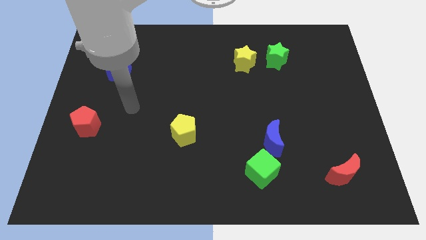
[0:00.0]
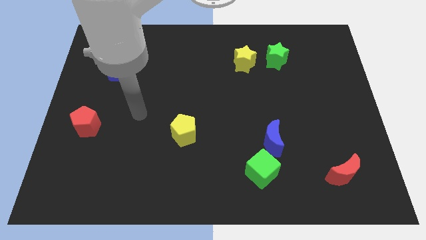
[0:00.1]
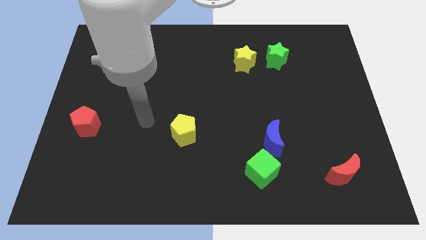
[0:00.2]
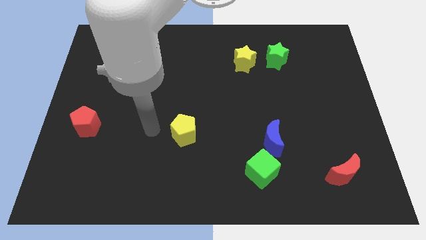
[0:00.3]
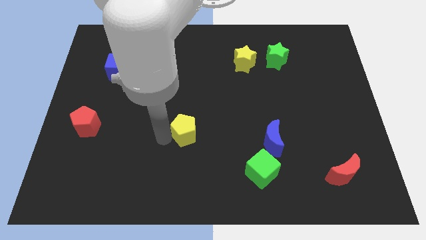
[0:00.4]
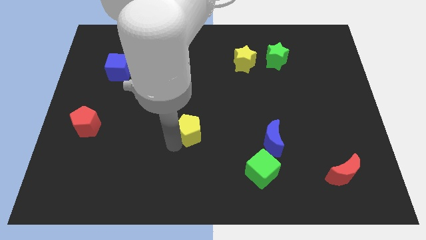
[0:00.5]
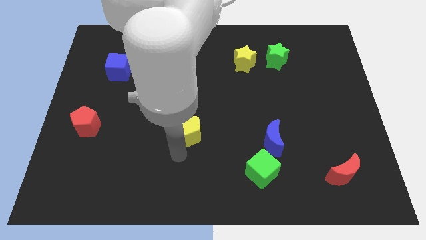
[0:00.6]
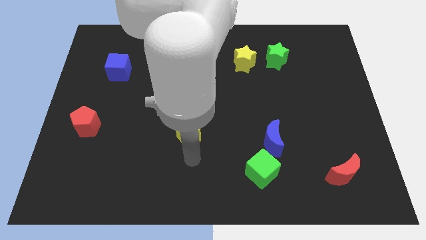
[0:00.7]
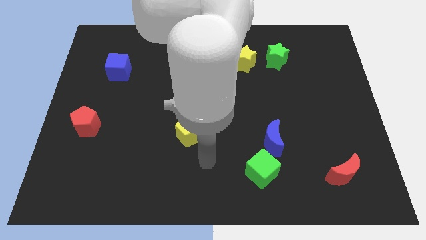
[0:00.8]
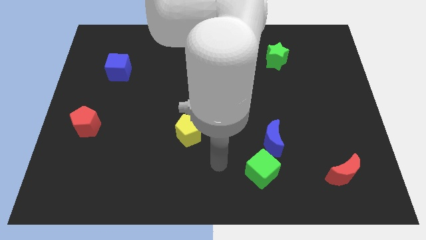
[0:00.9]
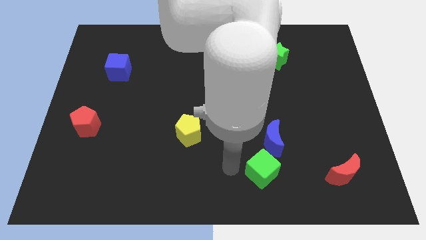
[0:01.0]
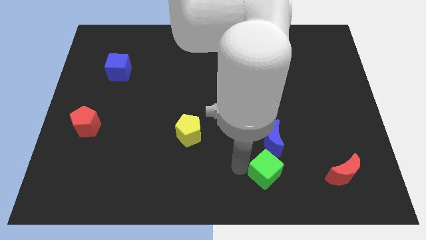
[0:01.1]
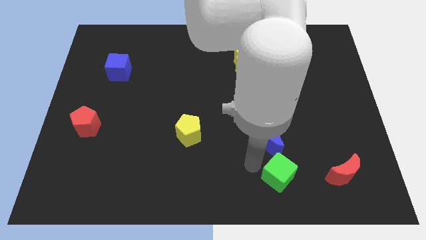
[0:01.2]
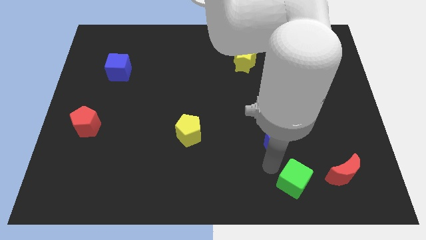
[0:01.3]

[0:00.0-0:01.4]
separate the blue moon from the green cube

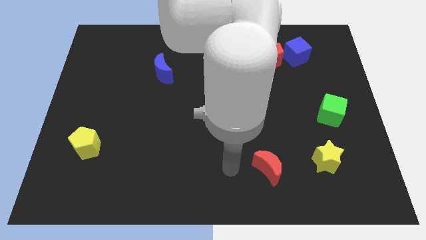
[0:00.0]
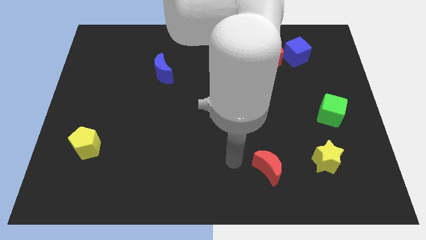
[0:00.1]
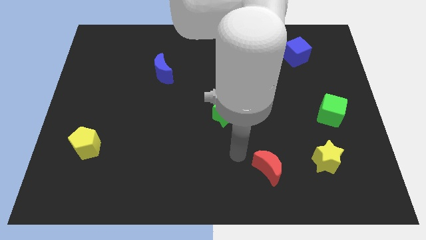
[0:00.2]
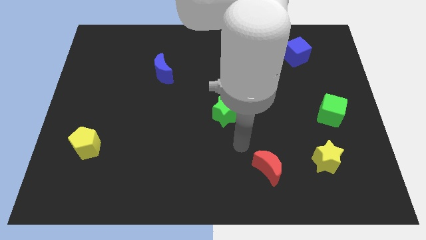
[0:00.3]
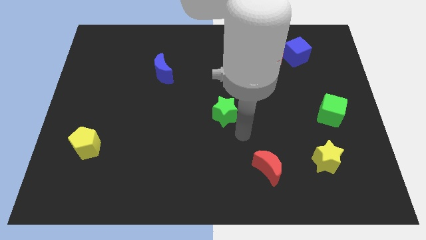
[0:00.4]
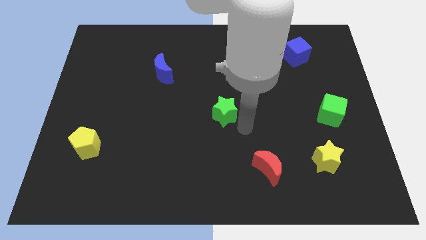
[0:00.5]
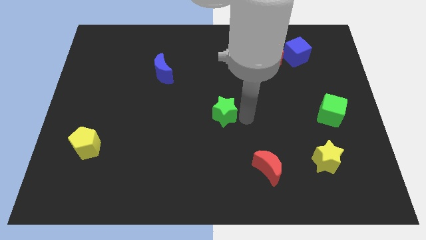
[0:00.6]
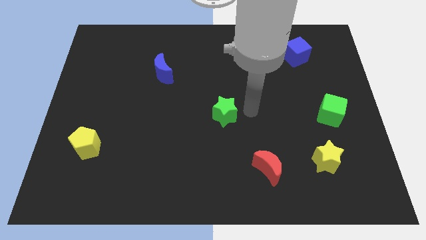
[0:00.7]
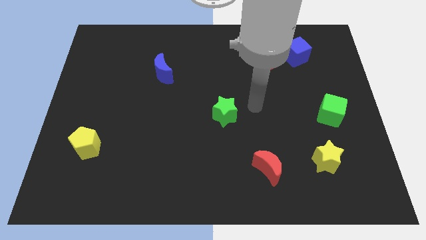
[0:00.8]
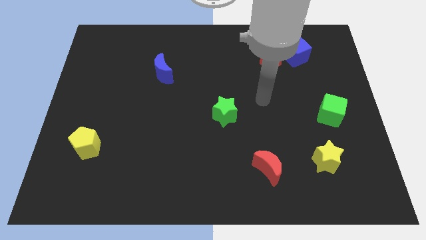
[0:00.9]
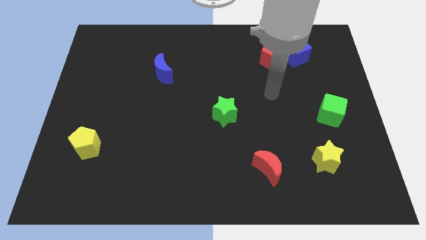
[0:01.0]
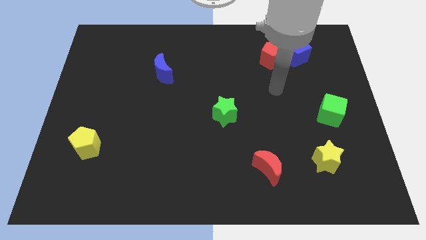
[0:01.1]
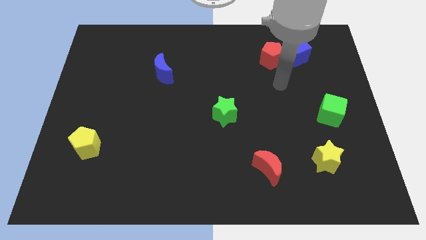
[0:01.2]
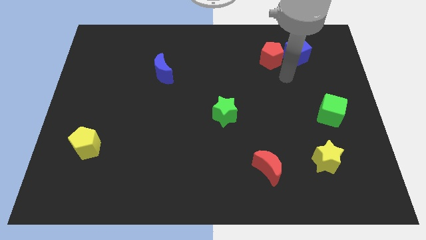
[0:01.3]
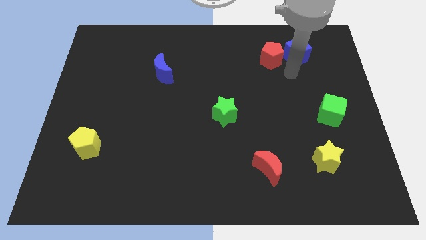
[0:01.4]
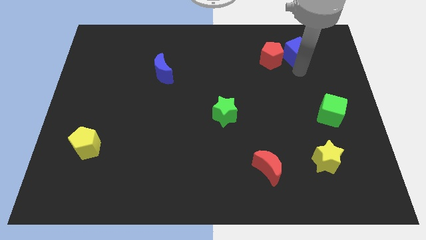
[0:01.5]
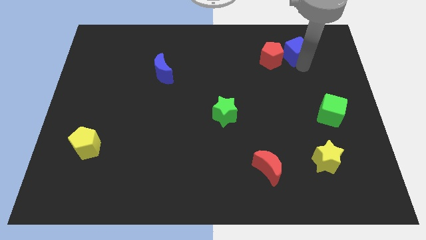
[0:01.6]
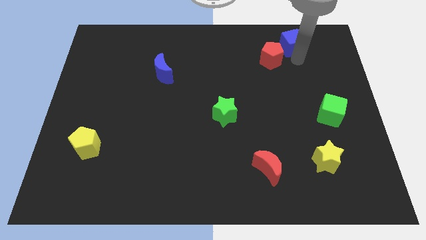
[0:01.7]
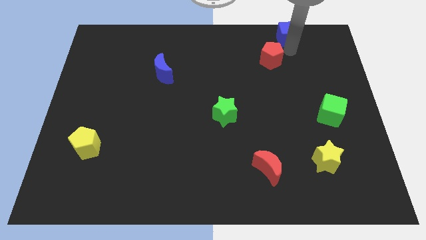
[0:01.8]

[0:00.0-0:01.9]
move the red pentagon away from the blue cube

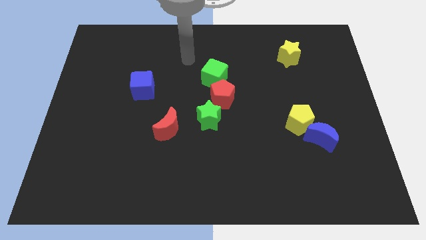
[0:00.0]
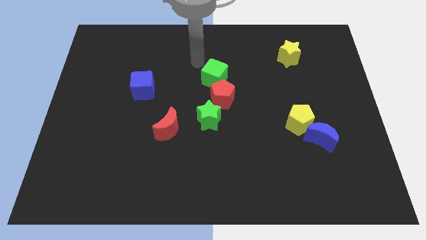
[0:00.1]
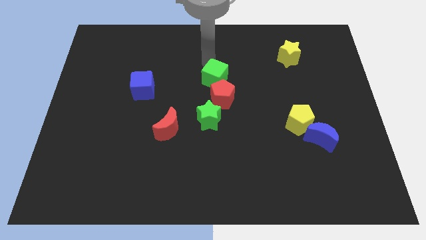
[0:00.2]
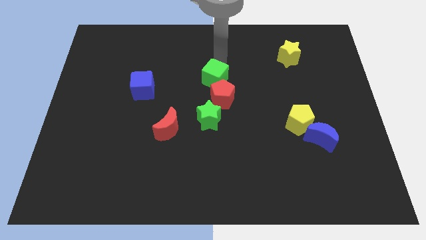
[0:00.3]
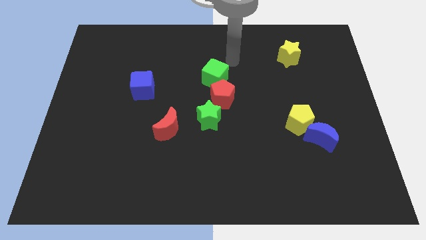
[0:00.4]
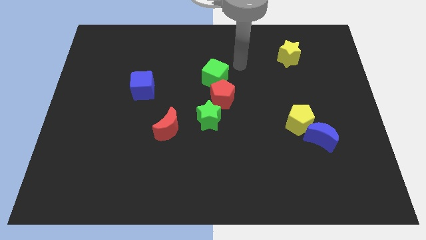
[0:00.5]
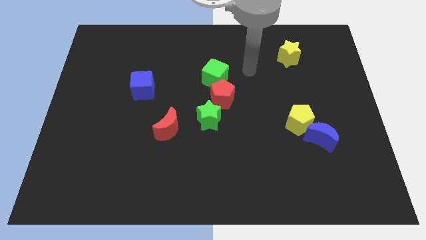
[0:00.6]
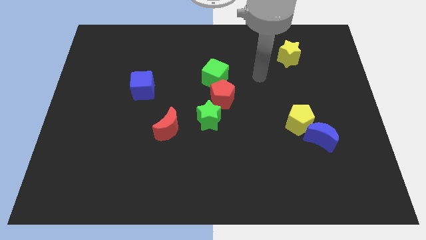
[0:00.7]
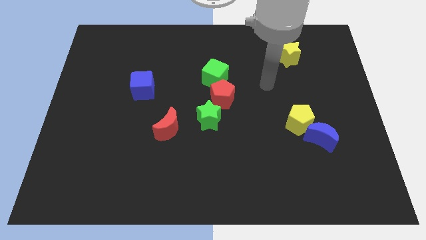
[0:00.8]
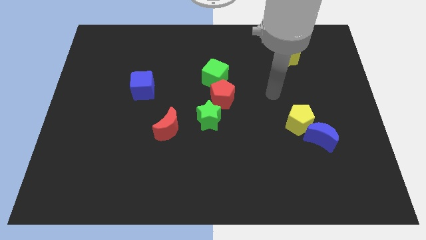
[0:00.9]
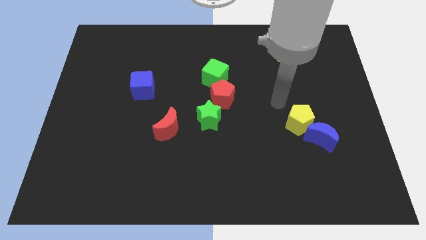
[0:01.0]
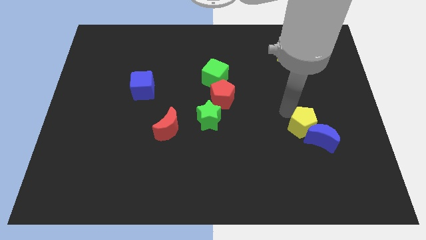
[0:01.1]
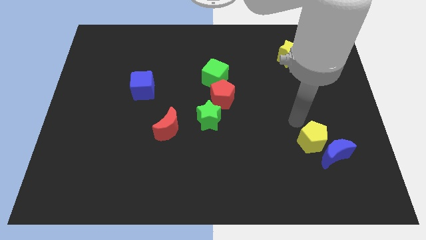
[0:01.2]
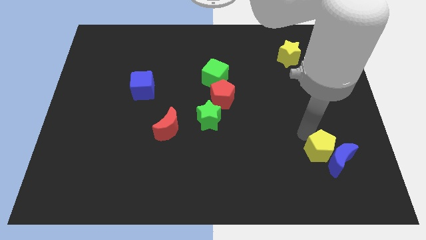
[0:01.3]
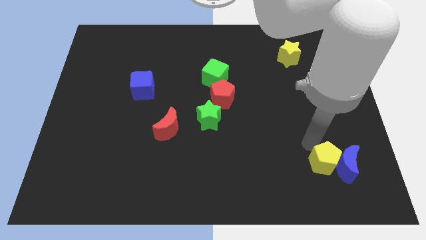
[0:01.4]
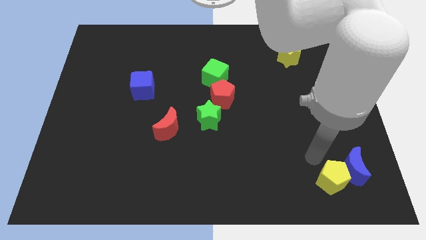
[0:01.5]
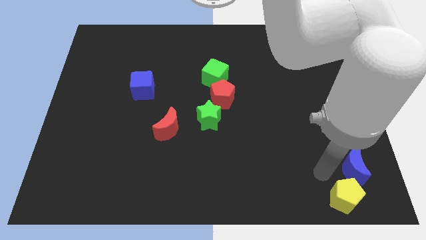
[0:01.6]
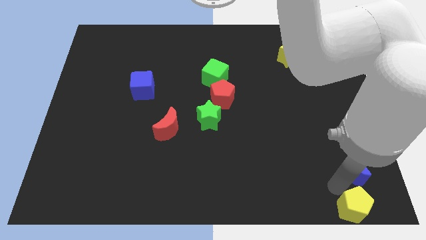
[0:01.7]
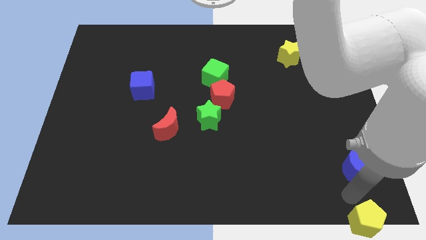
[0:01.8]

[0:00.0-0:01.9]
pull the blue moon apart from the yellow pentagon

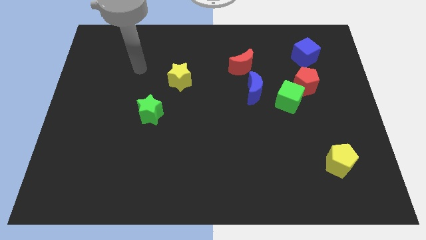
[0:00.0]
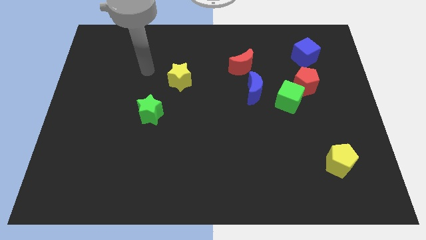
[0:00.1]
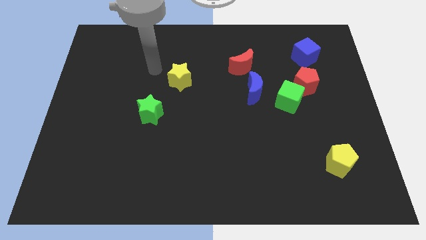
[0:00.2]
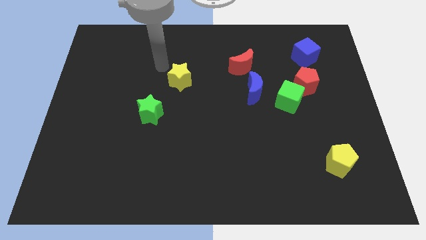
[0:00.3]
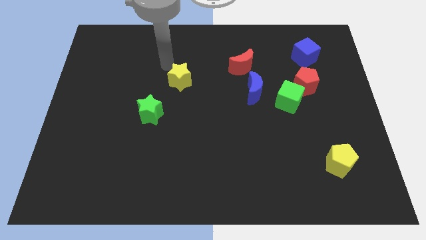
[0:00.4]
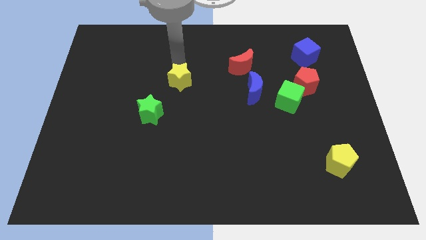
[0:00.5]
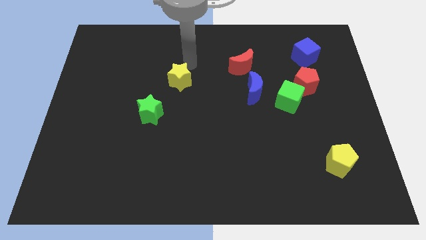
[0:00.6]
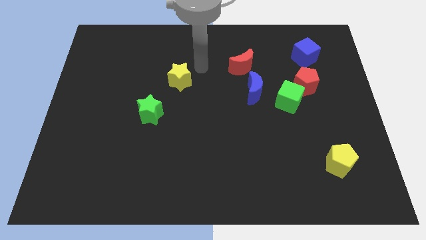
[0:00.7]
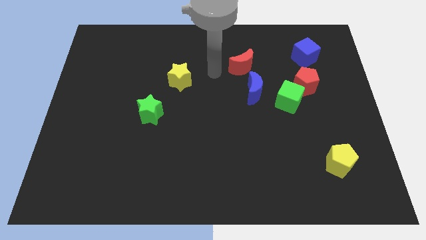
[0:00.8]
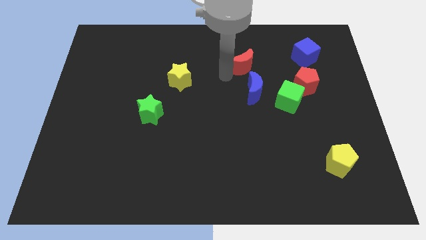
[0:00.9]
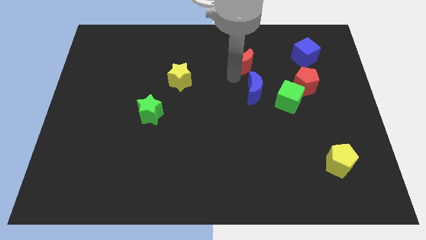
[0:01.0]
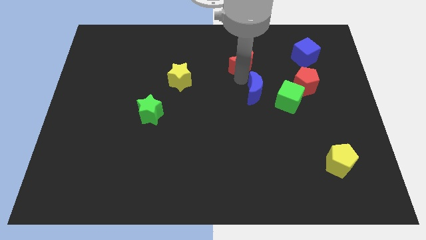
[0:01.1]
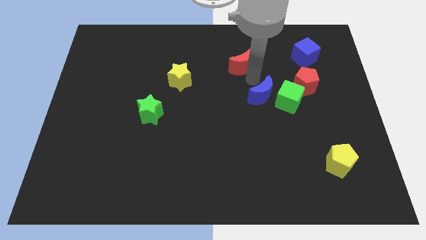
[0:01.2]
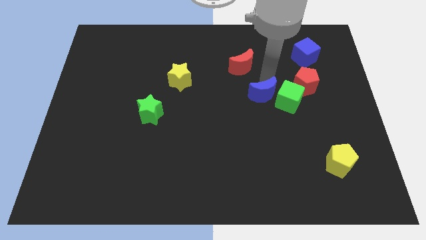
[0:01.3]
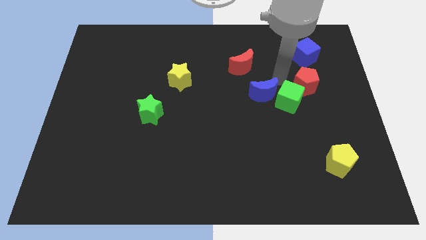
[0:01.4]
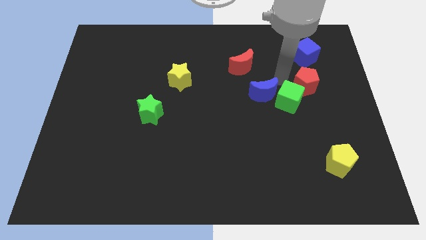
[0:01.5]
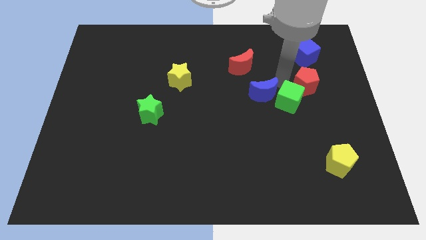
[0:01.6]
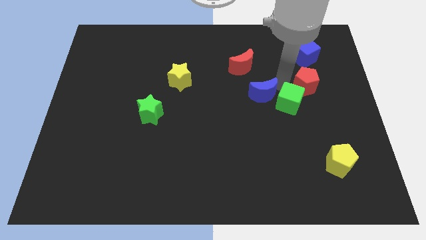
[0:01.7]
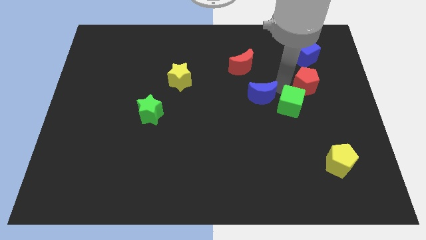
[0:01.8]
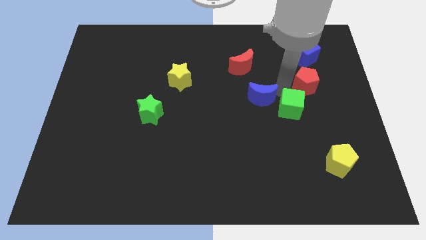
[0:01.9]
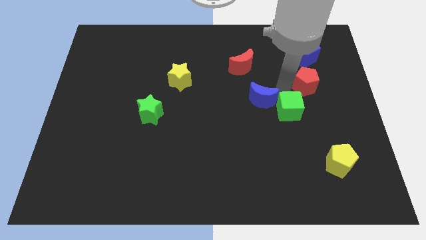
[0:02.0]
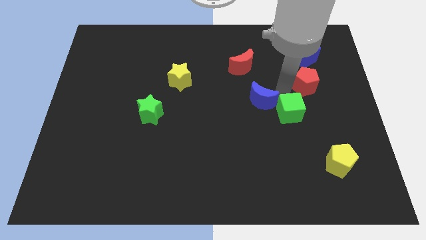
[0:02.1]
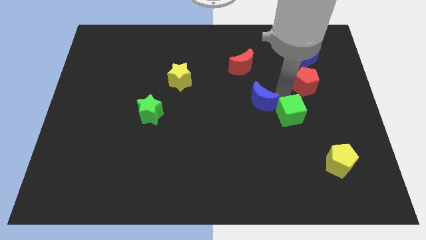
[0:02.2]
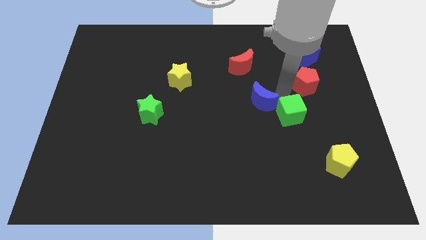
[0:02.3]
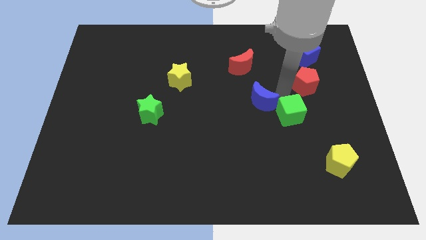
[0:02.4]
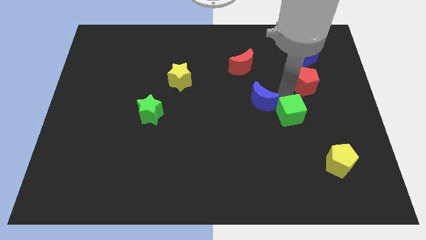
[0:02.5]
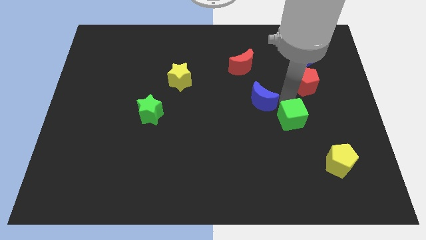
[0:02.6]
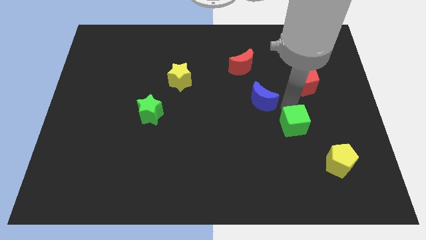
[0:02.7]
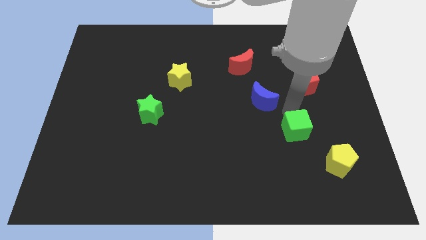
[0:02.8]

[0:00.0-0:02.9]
pull the green cube apart from the red pentagon and blue moon

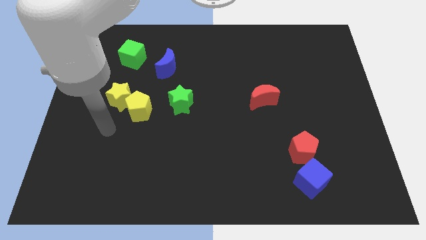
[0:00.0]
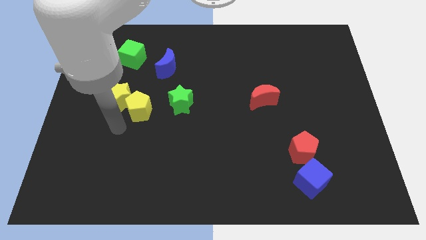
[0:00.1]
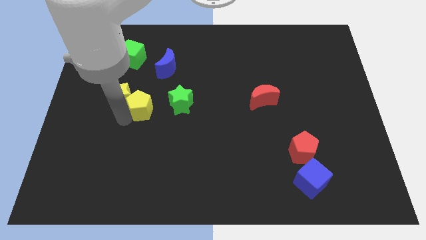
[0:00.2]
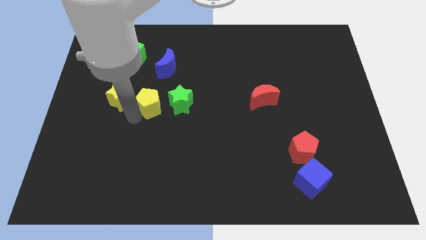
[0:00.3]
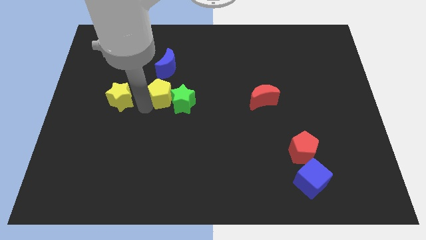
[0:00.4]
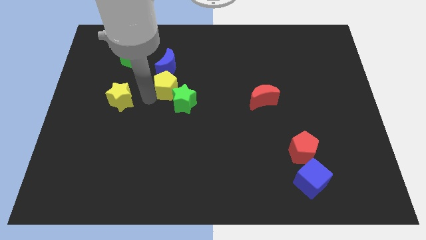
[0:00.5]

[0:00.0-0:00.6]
move the yellow star away from the yellow pentagon

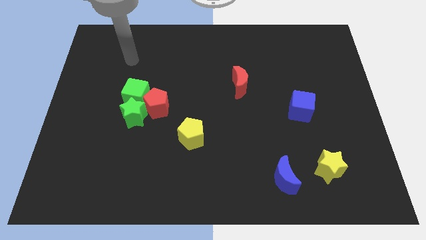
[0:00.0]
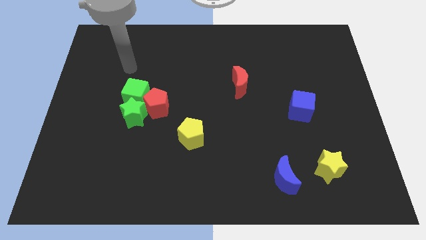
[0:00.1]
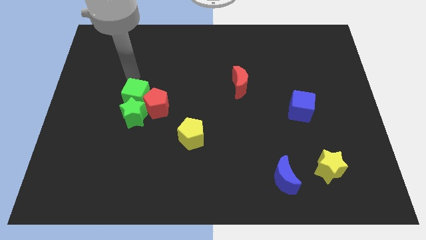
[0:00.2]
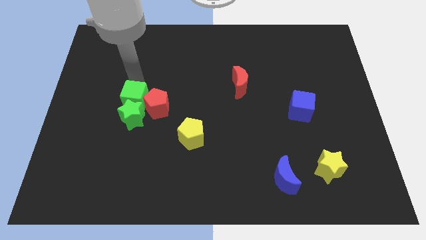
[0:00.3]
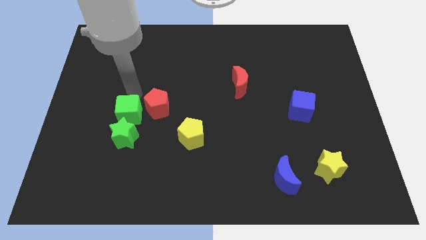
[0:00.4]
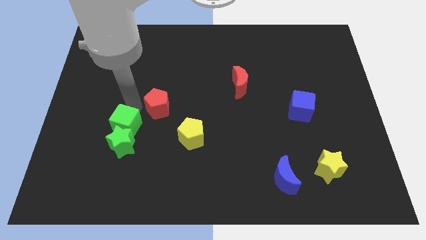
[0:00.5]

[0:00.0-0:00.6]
move the red pentagon away from the green star and green cube
